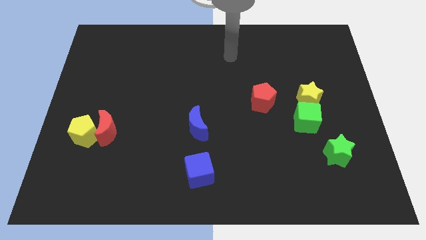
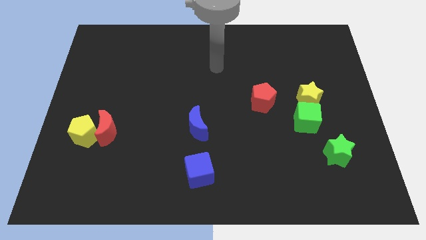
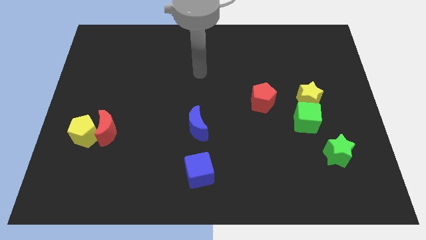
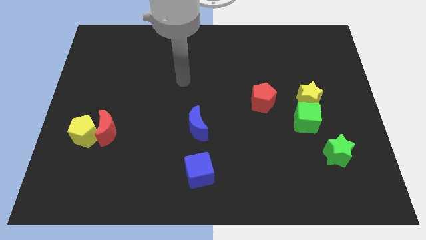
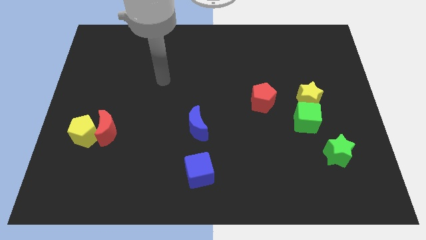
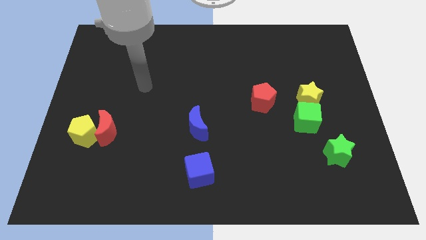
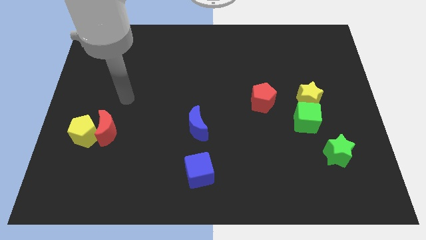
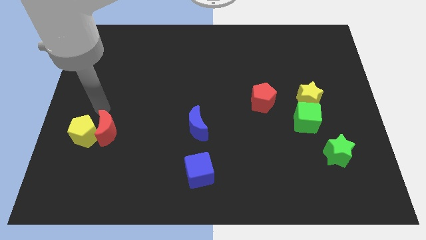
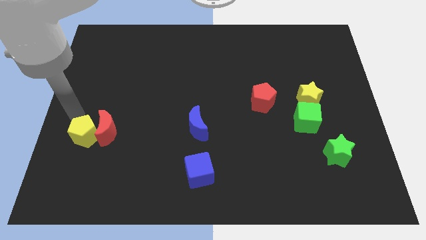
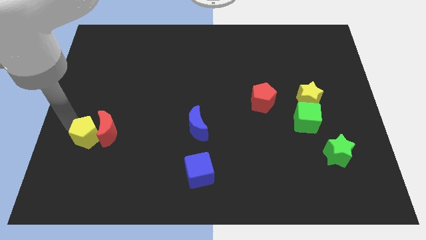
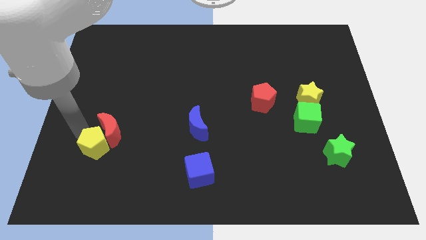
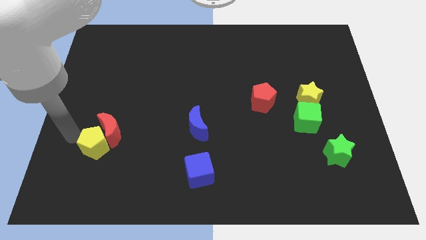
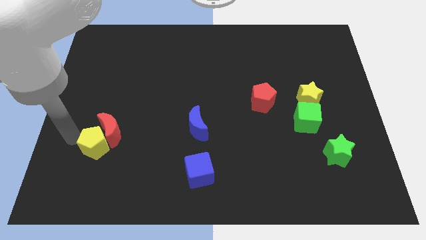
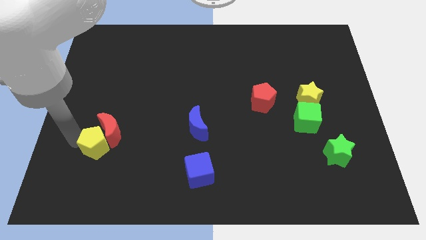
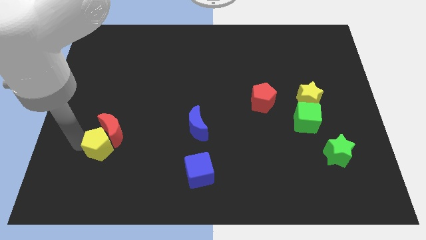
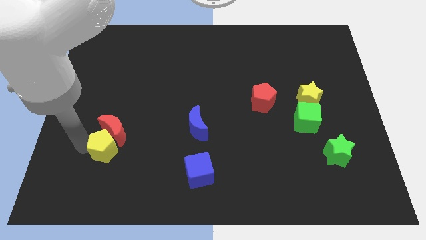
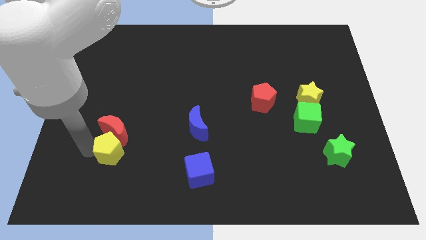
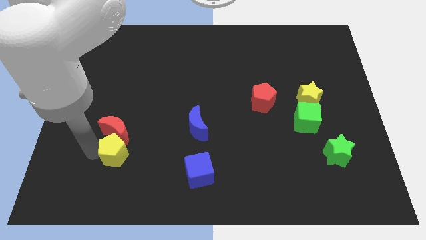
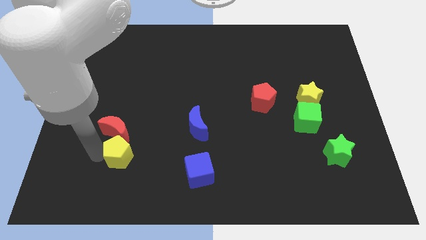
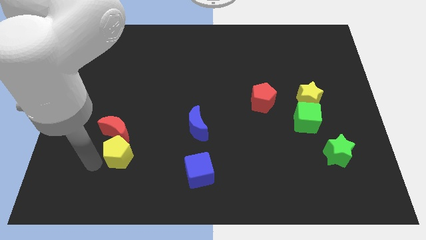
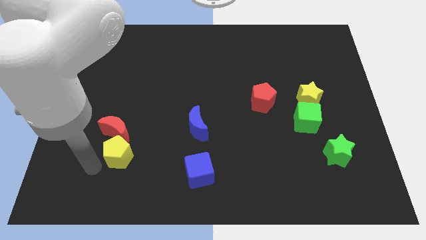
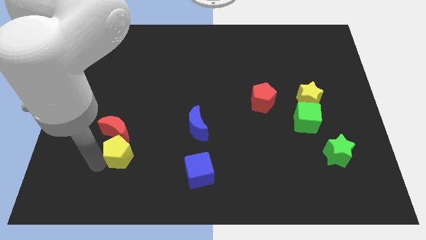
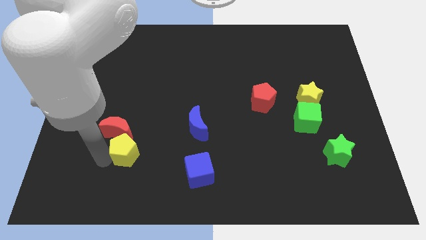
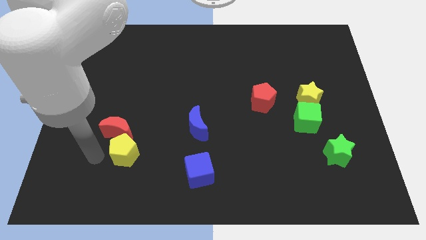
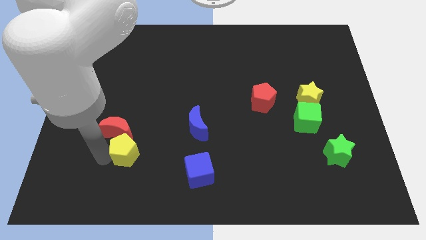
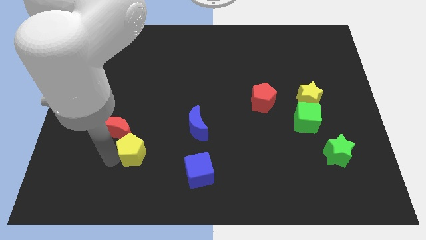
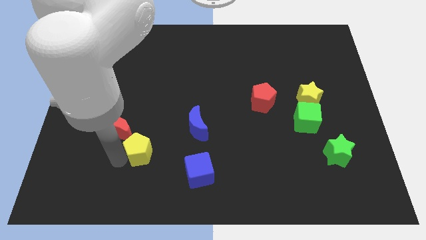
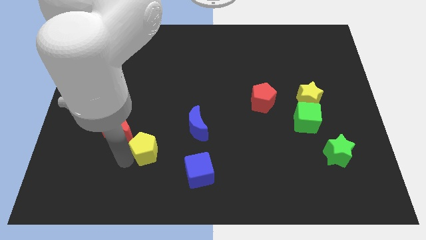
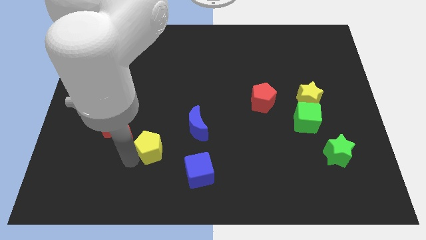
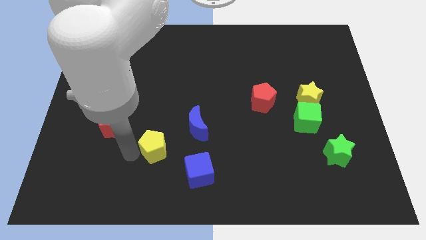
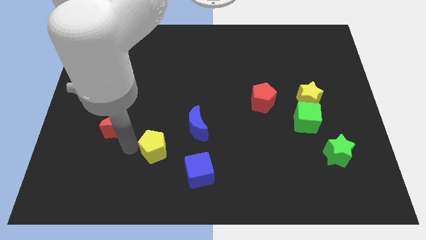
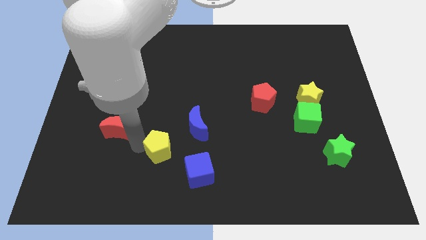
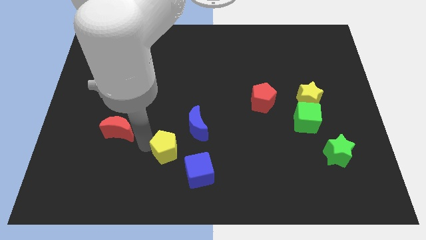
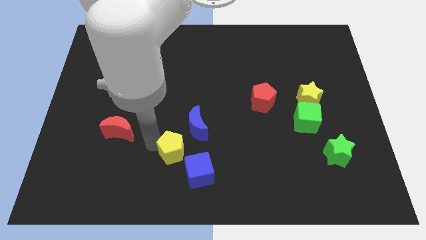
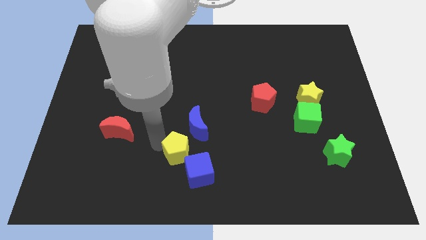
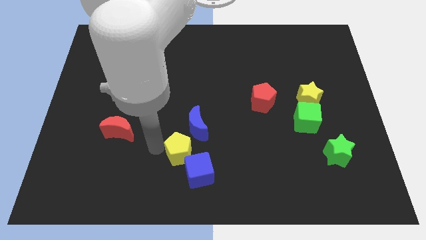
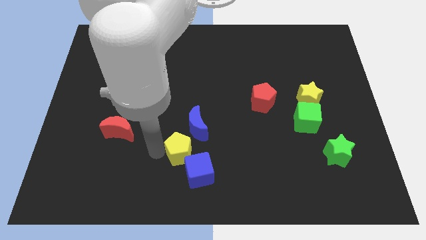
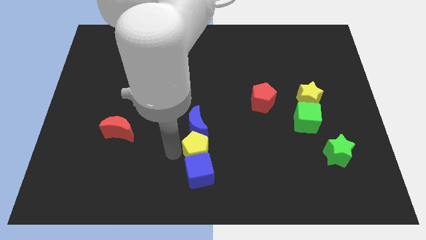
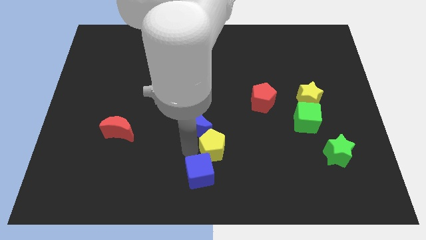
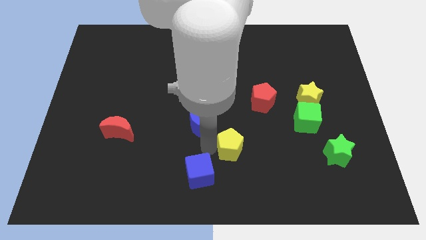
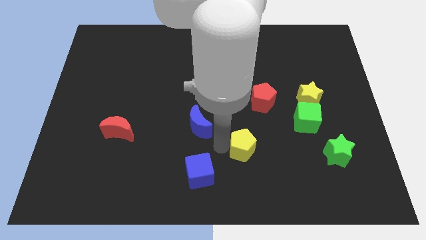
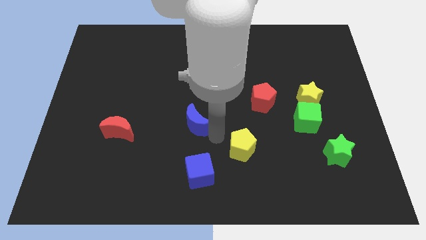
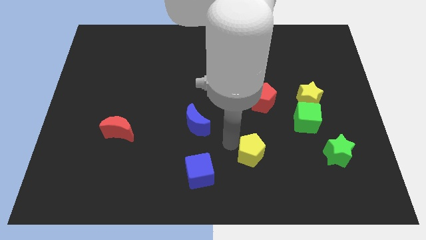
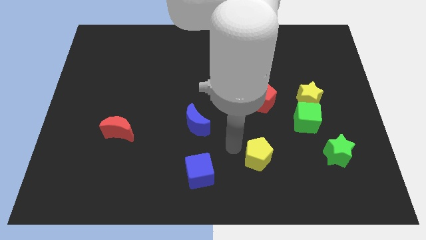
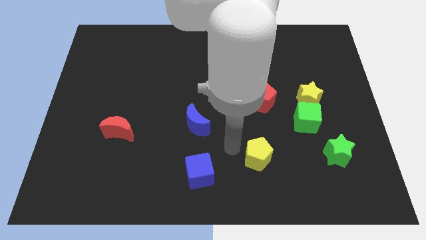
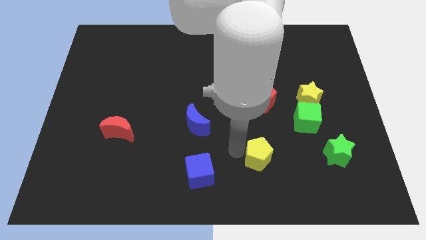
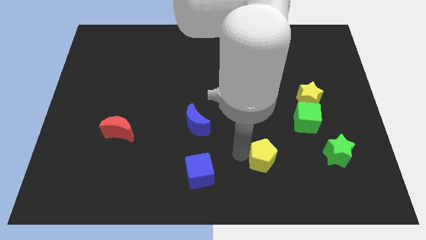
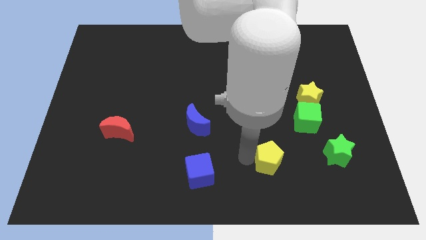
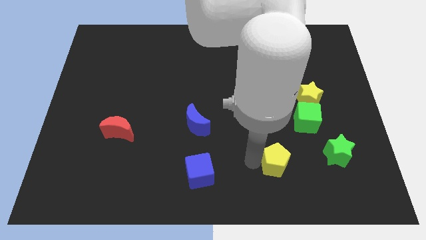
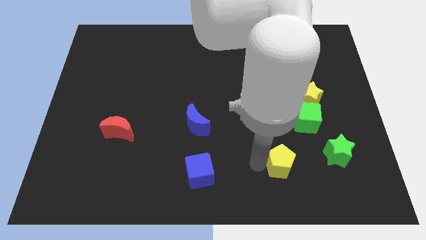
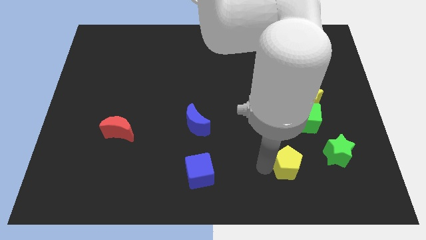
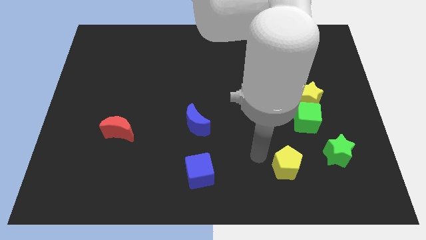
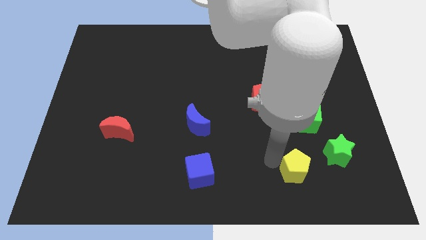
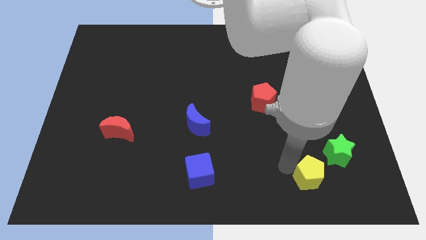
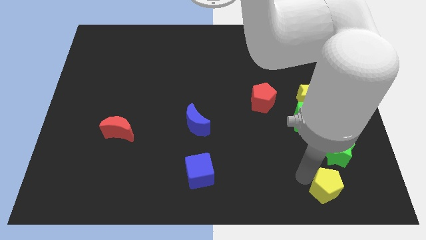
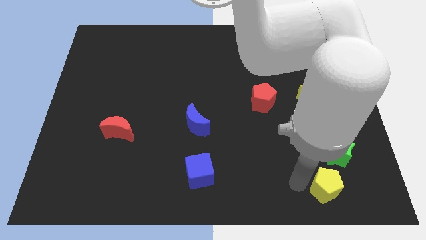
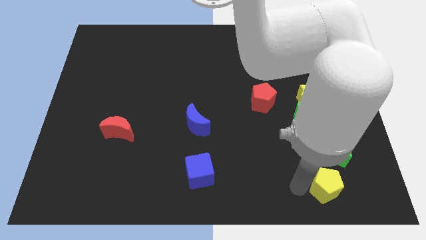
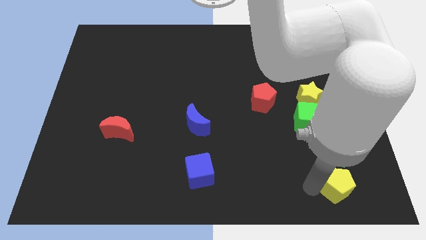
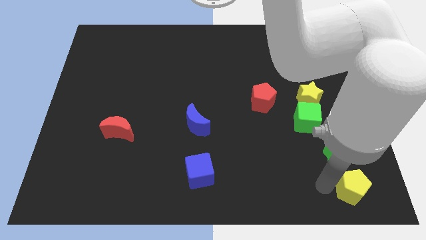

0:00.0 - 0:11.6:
slide the yellow pentagon to the bottom right corner
